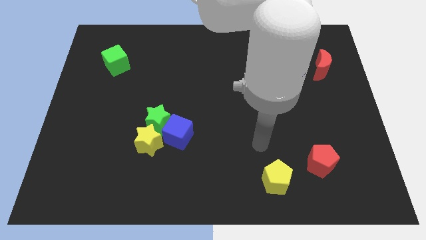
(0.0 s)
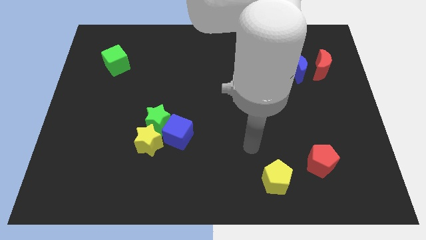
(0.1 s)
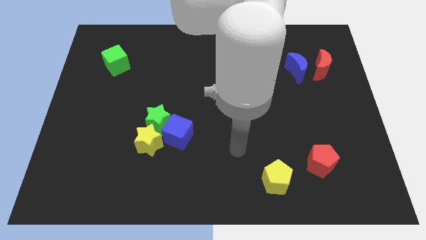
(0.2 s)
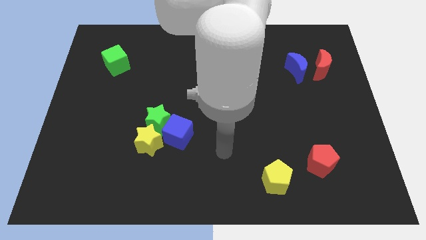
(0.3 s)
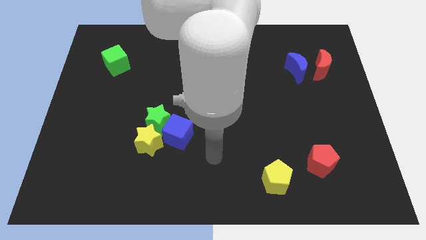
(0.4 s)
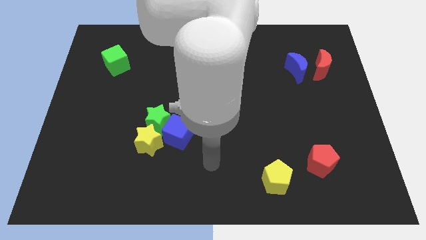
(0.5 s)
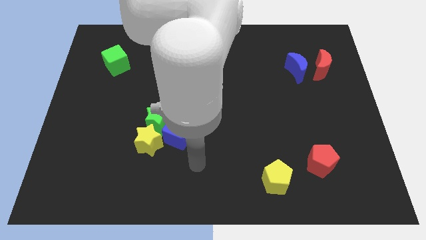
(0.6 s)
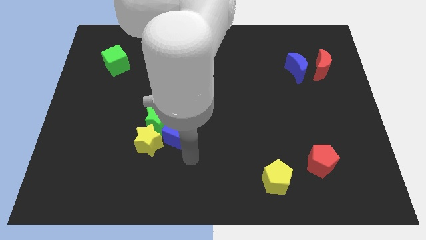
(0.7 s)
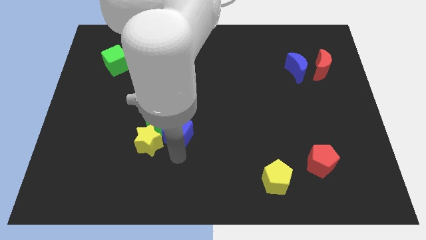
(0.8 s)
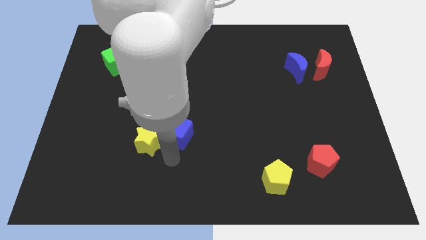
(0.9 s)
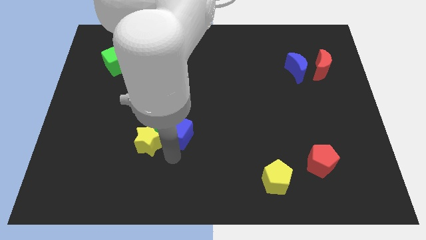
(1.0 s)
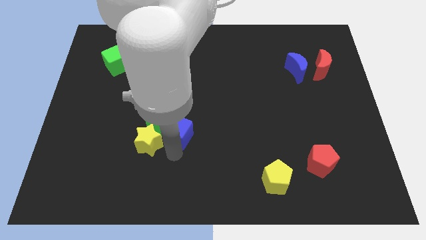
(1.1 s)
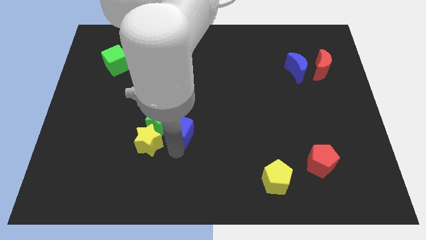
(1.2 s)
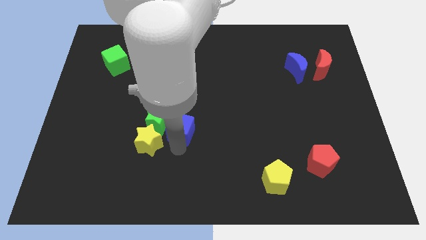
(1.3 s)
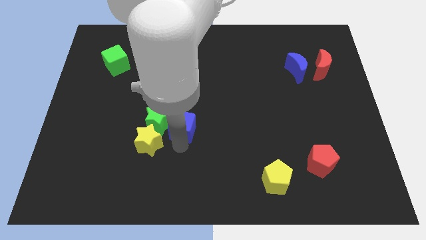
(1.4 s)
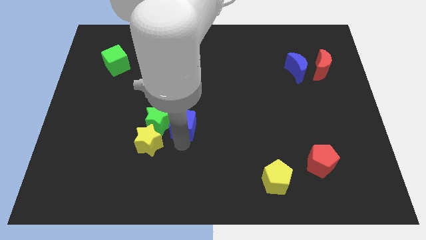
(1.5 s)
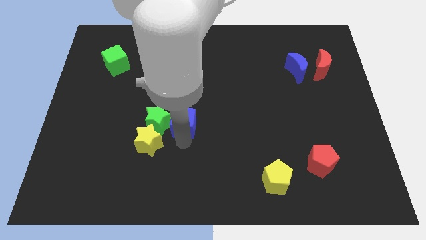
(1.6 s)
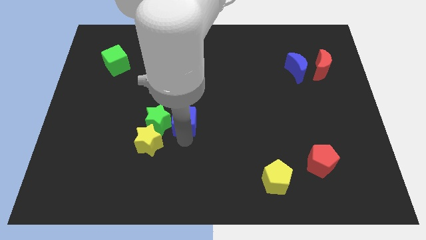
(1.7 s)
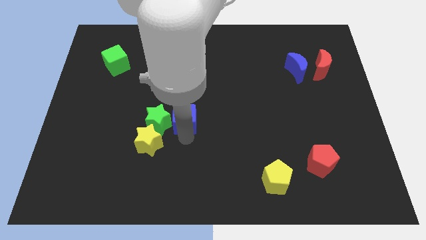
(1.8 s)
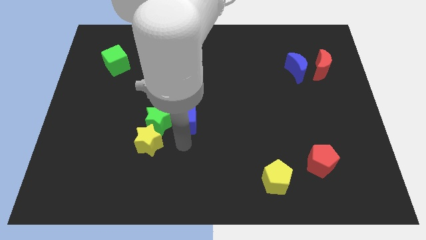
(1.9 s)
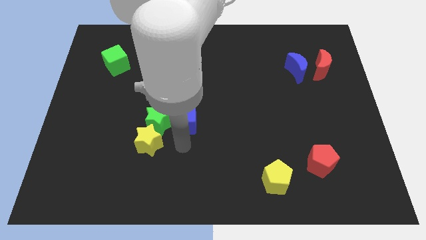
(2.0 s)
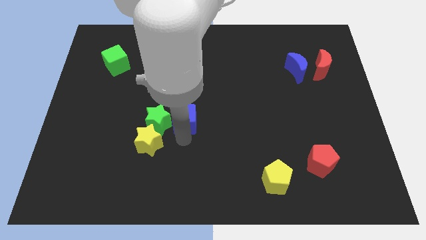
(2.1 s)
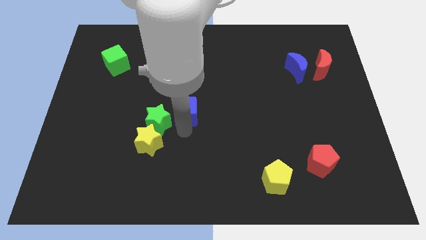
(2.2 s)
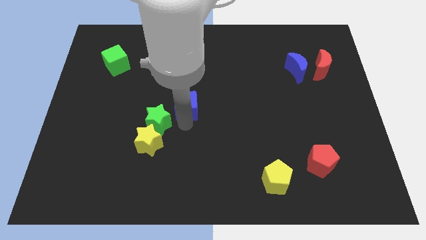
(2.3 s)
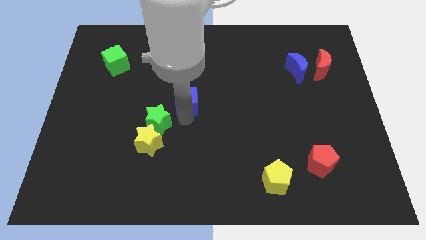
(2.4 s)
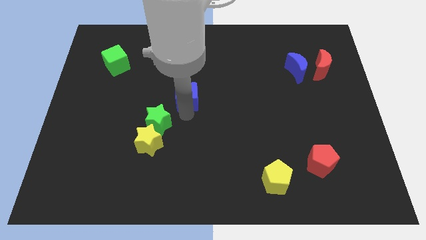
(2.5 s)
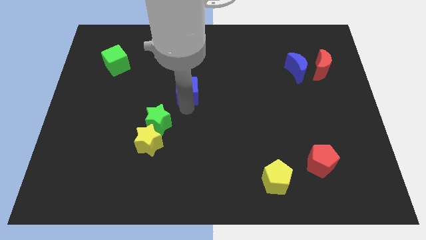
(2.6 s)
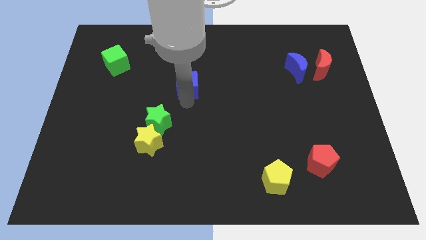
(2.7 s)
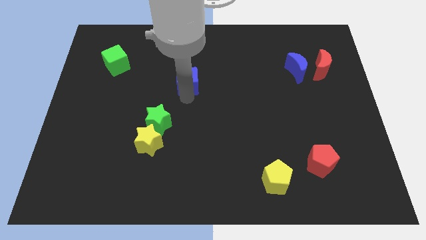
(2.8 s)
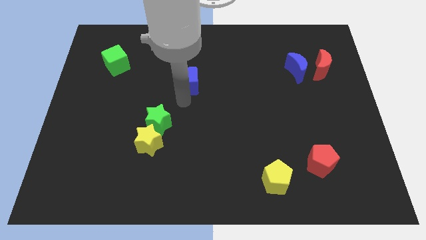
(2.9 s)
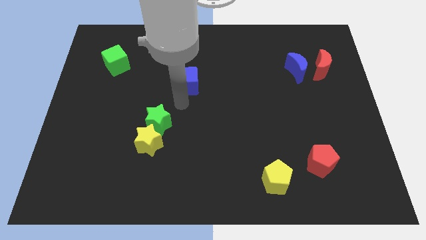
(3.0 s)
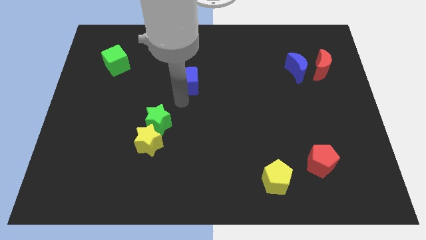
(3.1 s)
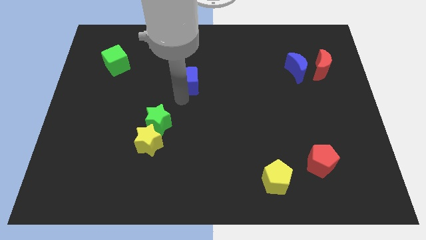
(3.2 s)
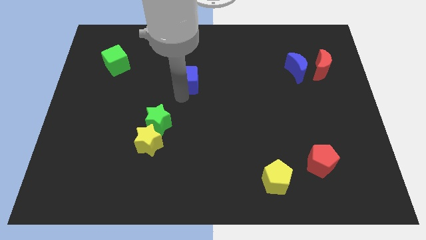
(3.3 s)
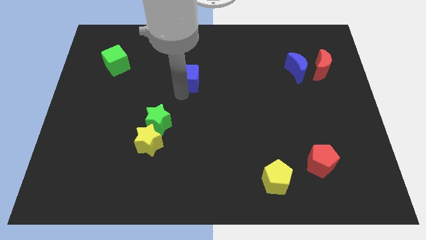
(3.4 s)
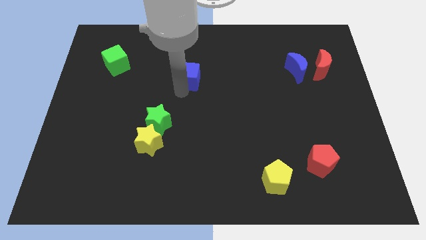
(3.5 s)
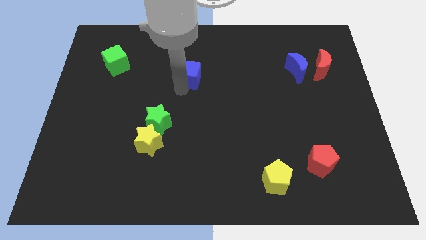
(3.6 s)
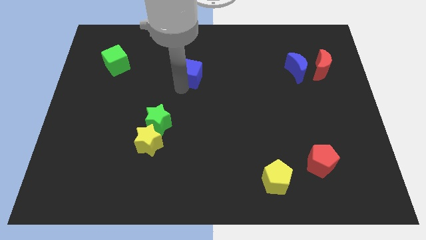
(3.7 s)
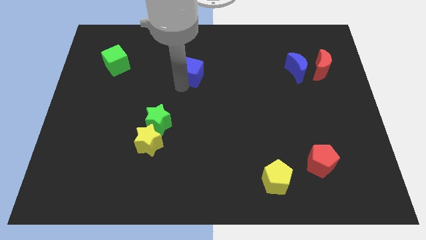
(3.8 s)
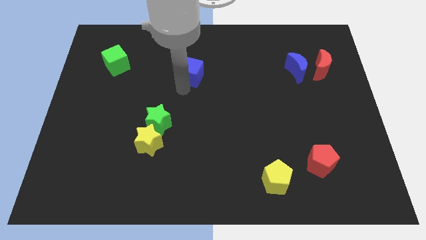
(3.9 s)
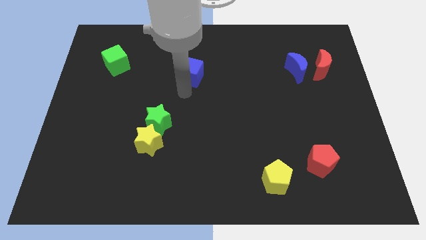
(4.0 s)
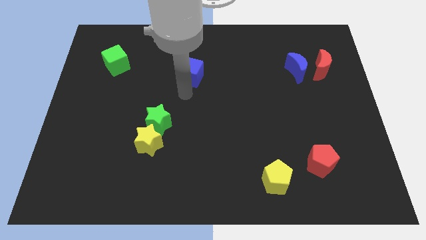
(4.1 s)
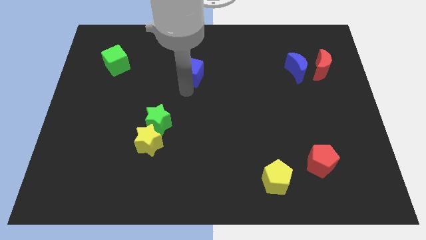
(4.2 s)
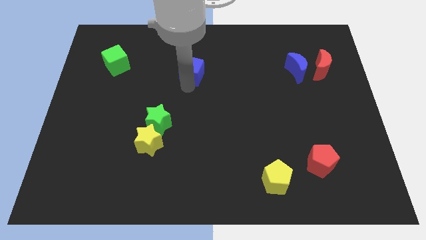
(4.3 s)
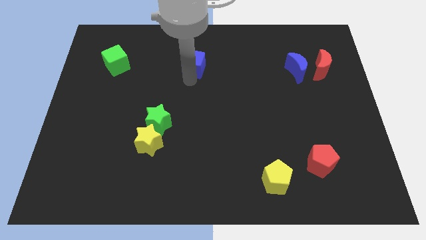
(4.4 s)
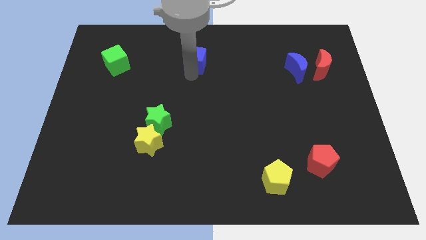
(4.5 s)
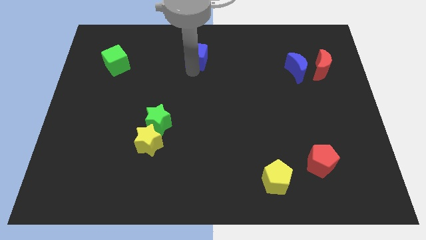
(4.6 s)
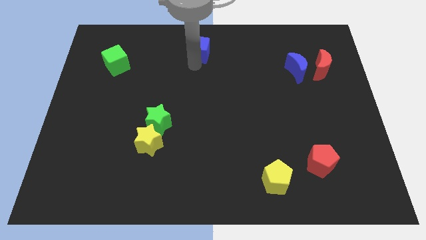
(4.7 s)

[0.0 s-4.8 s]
move the blue cube to the towards your base

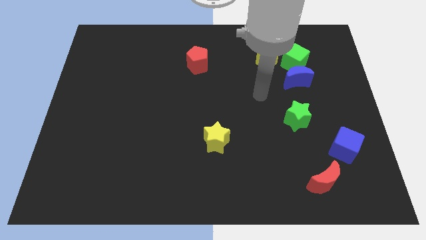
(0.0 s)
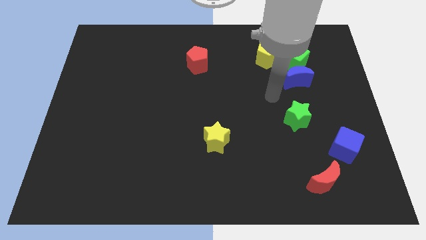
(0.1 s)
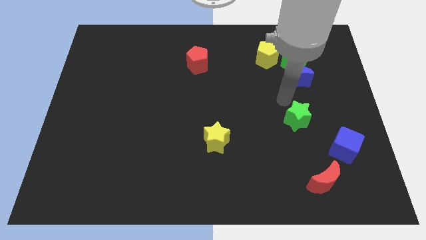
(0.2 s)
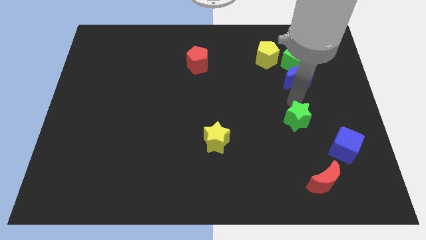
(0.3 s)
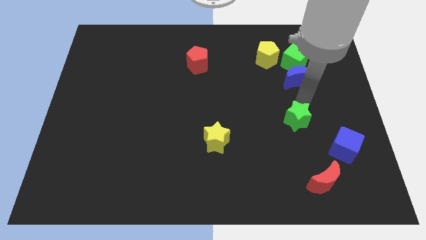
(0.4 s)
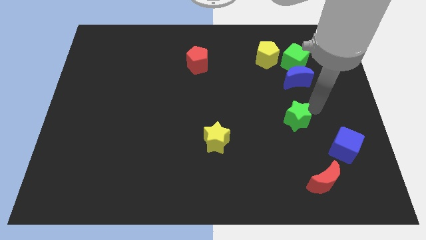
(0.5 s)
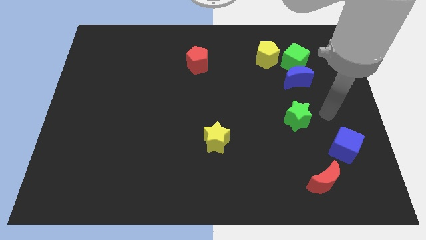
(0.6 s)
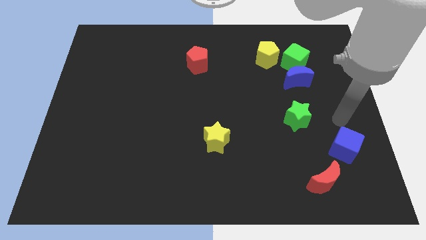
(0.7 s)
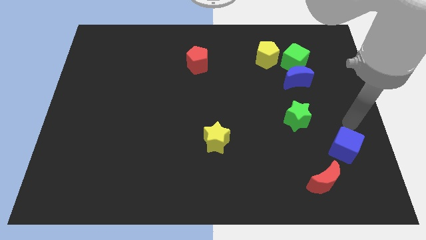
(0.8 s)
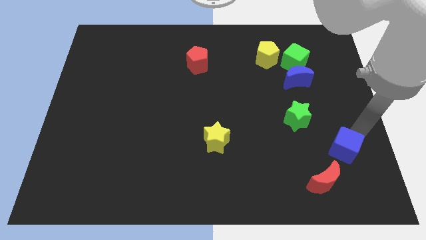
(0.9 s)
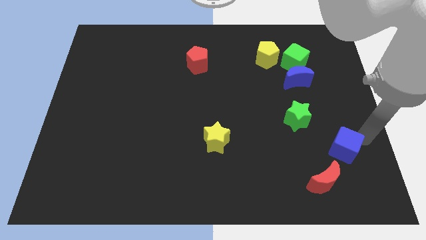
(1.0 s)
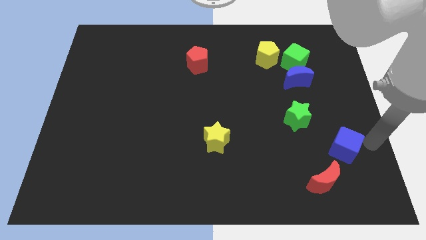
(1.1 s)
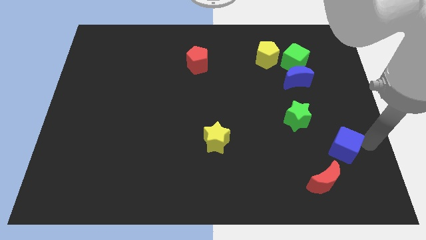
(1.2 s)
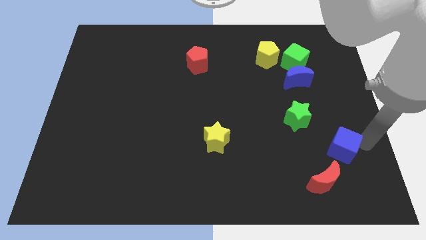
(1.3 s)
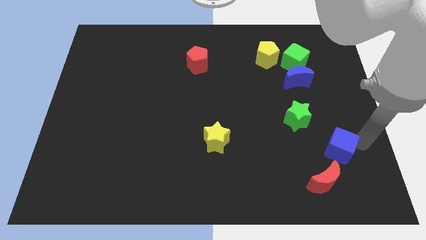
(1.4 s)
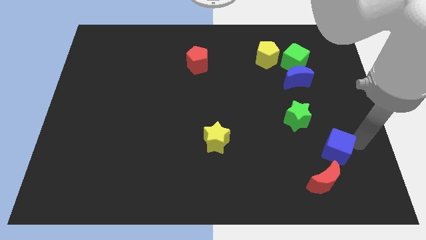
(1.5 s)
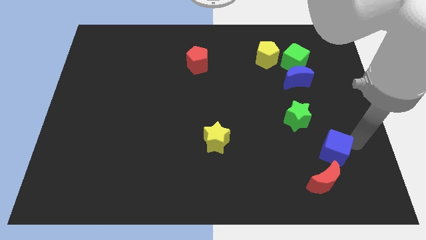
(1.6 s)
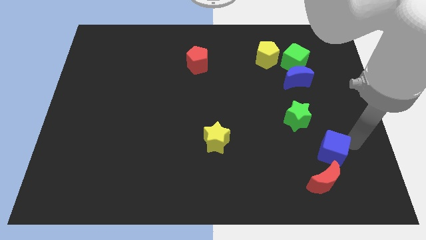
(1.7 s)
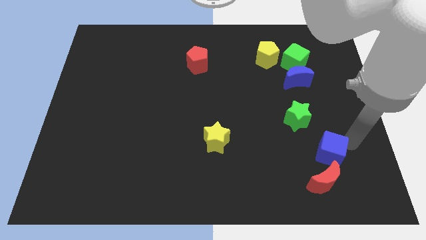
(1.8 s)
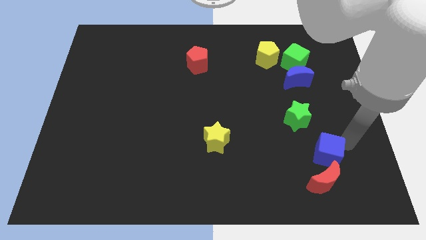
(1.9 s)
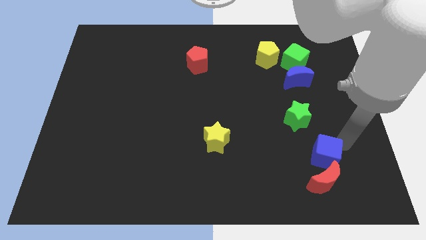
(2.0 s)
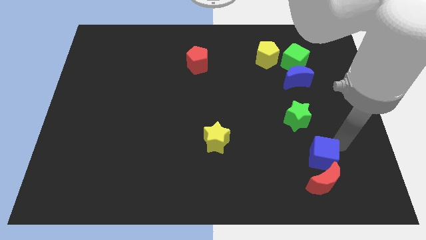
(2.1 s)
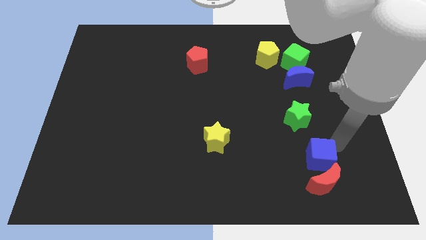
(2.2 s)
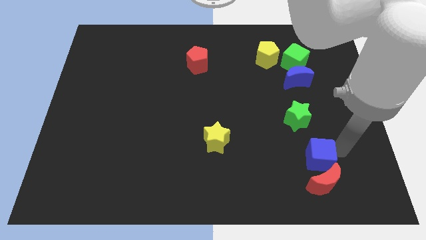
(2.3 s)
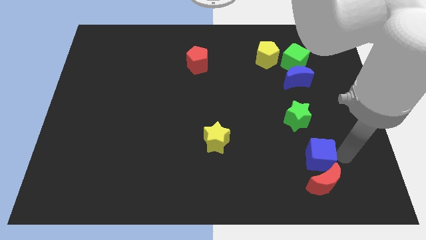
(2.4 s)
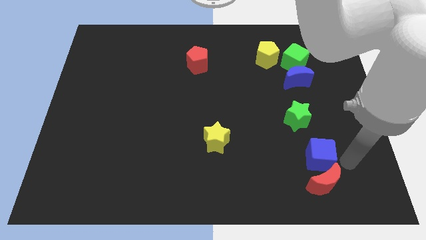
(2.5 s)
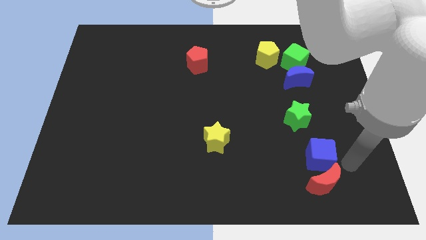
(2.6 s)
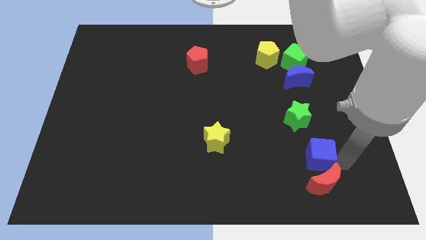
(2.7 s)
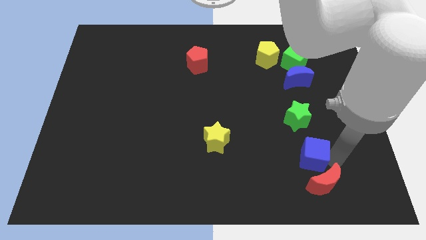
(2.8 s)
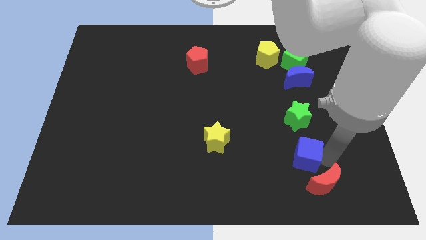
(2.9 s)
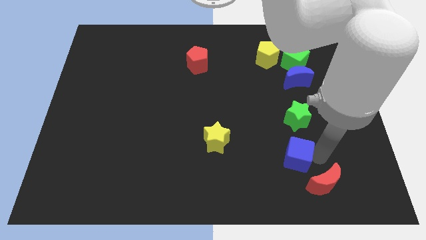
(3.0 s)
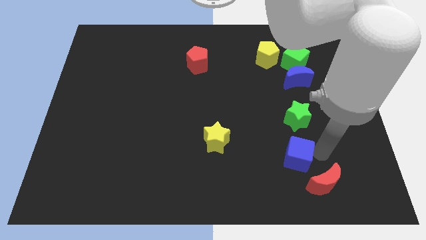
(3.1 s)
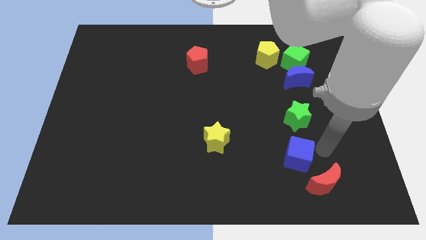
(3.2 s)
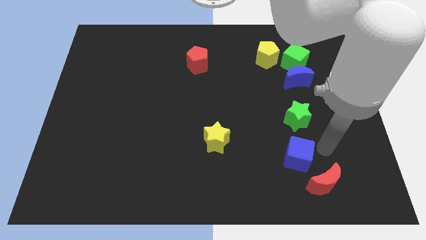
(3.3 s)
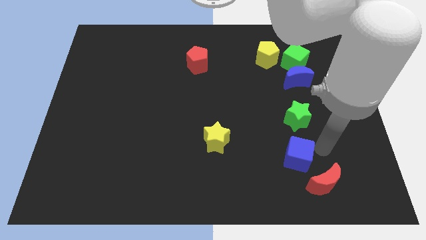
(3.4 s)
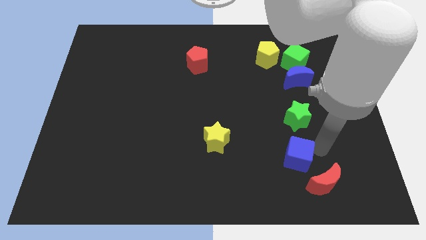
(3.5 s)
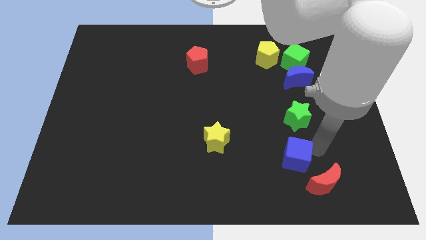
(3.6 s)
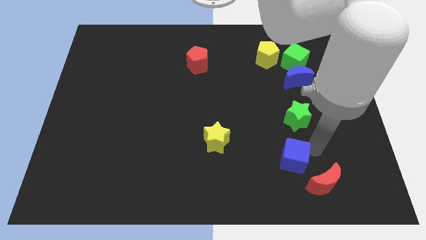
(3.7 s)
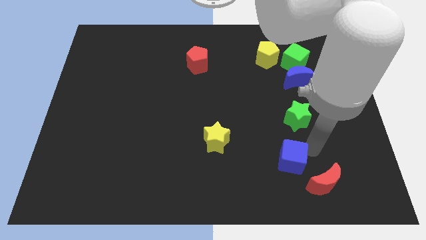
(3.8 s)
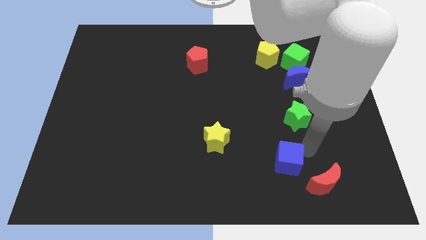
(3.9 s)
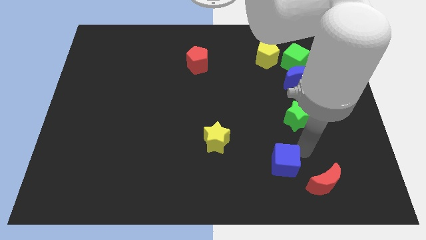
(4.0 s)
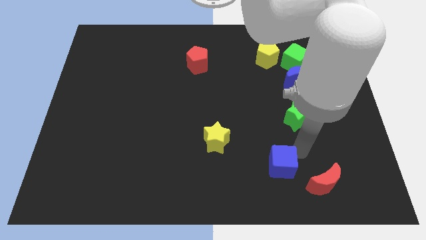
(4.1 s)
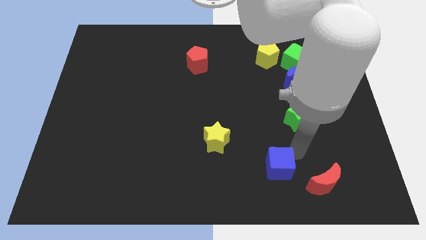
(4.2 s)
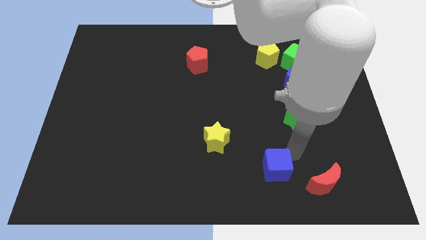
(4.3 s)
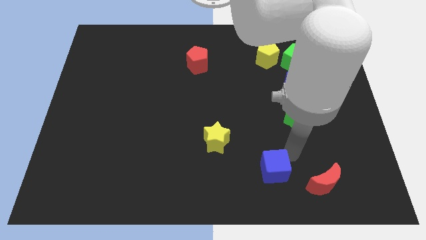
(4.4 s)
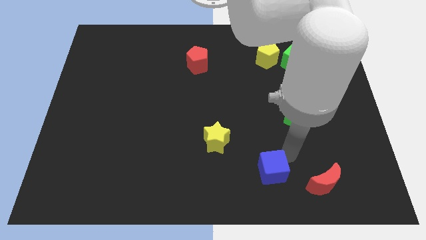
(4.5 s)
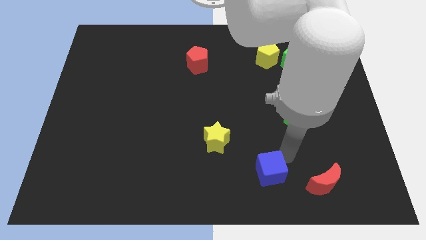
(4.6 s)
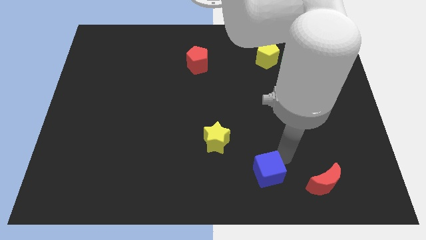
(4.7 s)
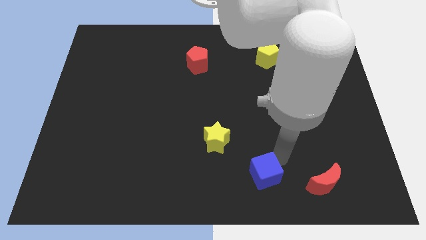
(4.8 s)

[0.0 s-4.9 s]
push the blue cube to the bottom side
